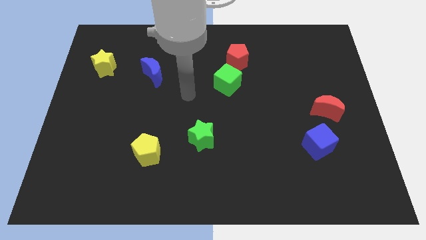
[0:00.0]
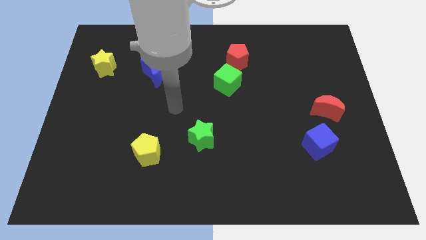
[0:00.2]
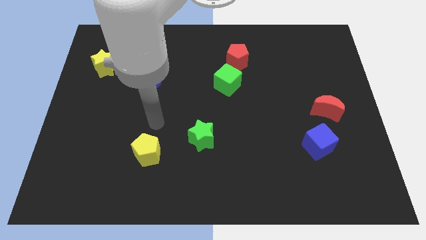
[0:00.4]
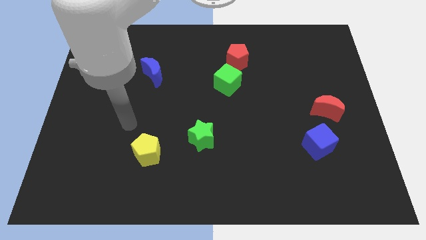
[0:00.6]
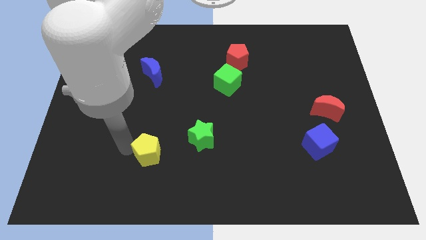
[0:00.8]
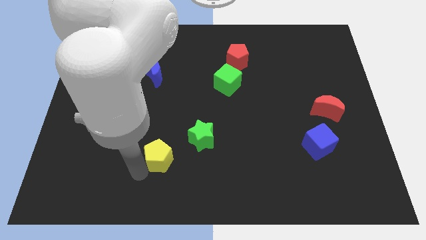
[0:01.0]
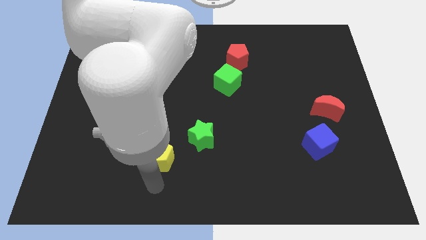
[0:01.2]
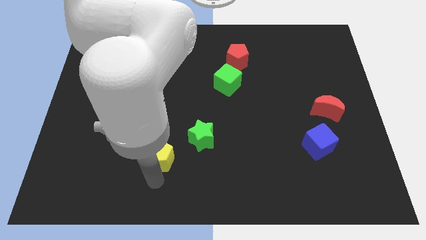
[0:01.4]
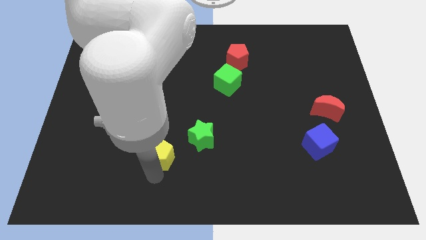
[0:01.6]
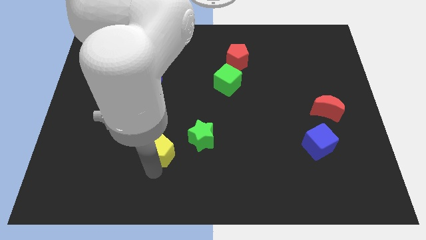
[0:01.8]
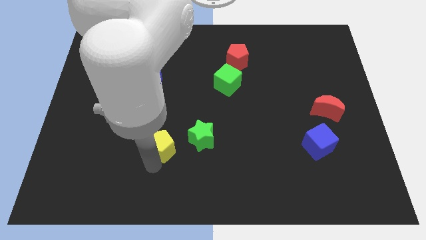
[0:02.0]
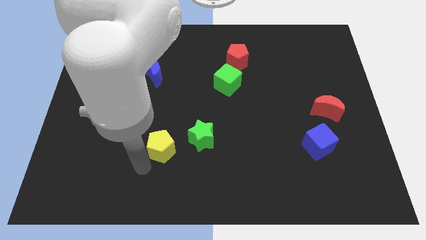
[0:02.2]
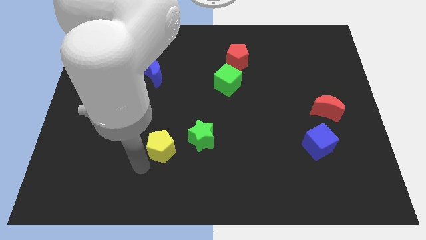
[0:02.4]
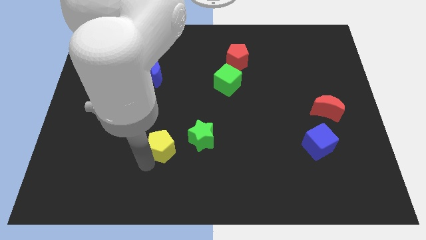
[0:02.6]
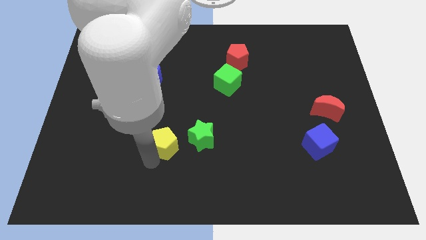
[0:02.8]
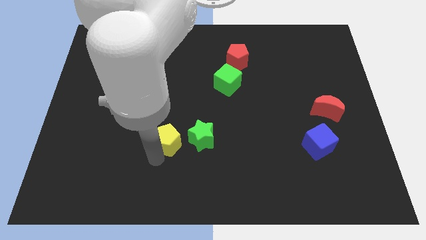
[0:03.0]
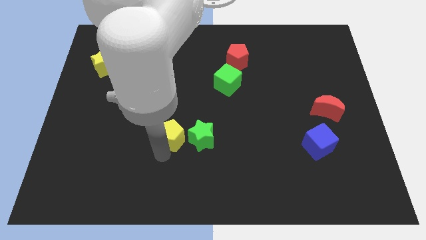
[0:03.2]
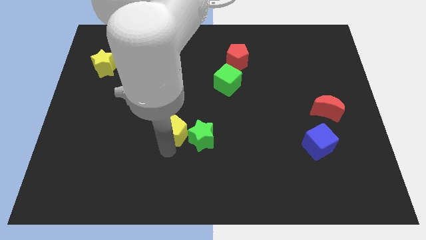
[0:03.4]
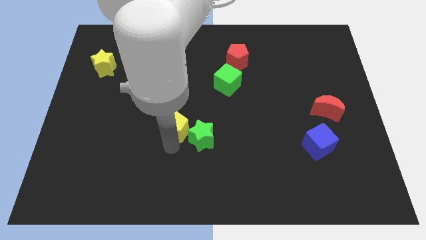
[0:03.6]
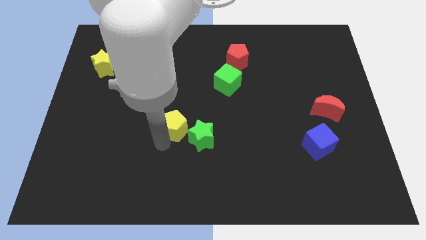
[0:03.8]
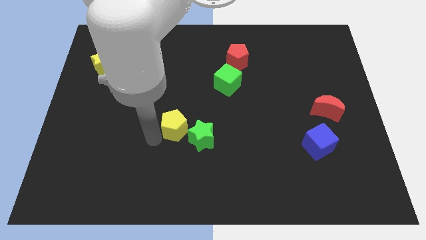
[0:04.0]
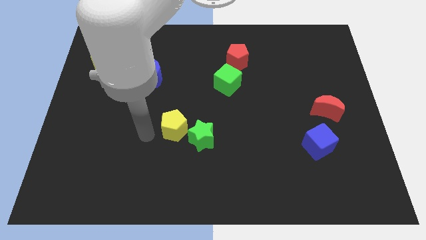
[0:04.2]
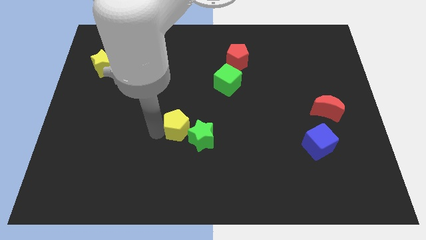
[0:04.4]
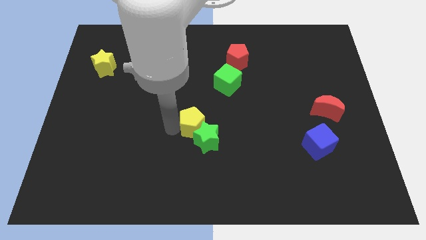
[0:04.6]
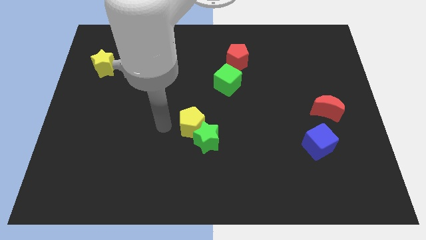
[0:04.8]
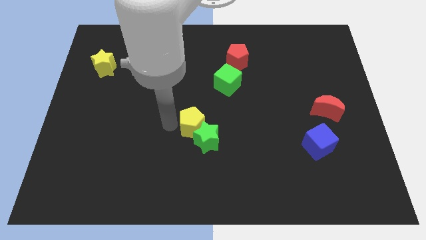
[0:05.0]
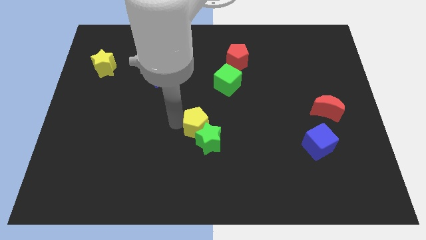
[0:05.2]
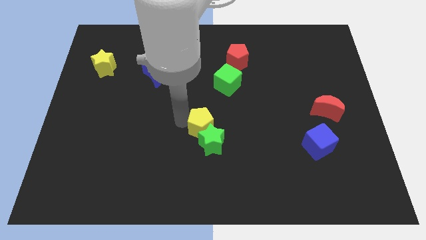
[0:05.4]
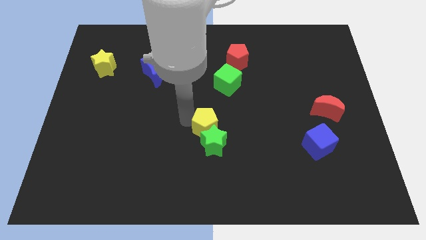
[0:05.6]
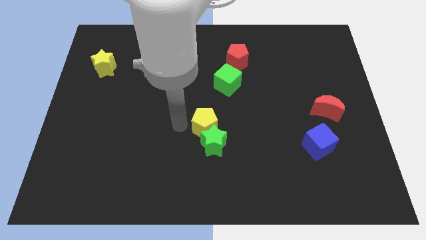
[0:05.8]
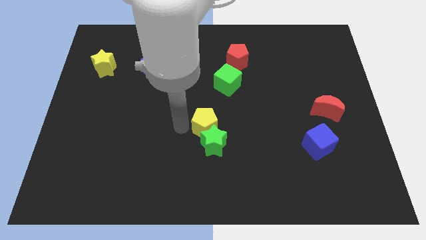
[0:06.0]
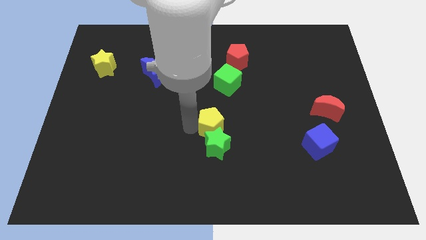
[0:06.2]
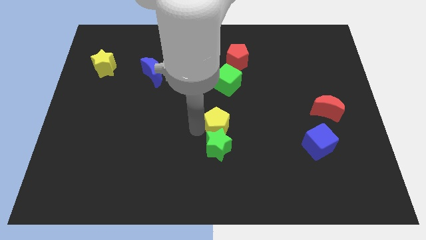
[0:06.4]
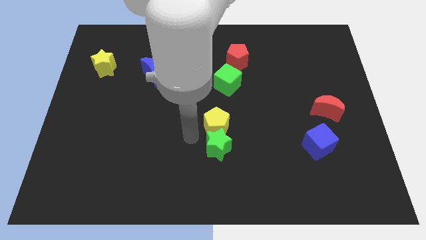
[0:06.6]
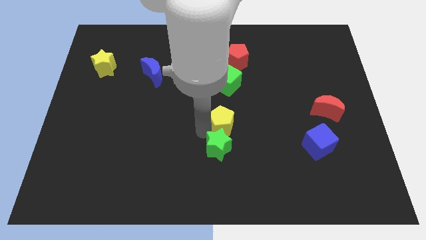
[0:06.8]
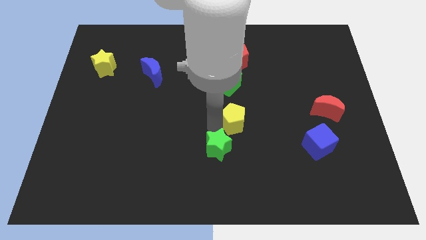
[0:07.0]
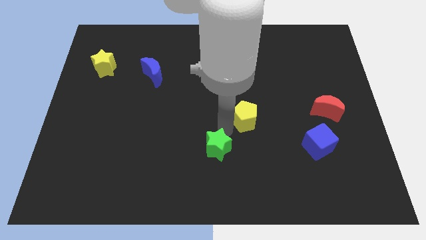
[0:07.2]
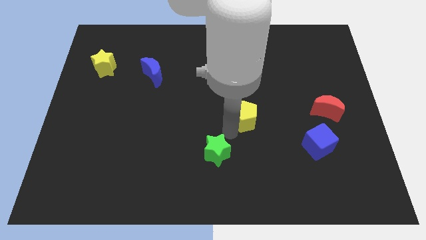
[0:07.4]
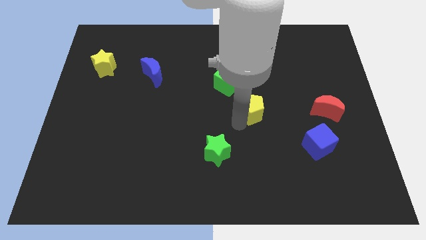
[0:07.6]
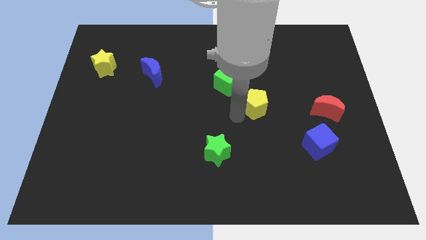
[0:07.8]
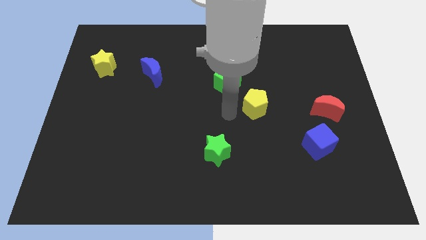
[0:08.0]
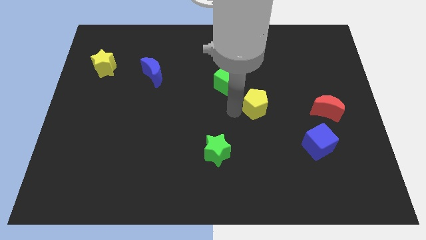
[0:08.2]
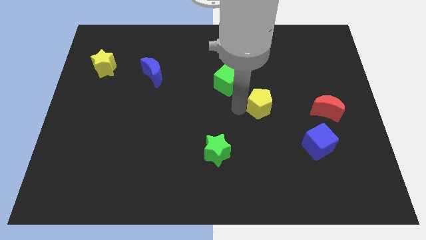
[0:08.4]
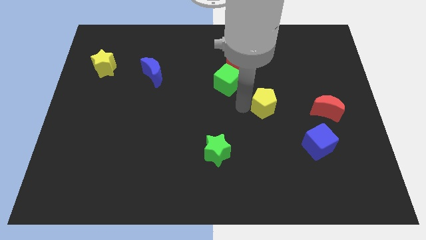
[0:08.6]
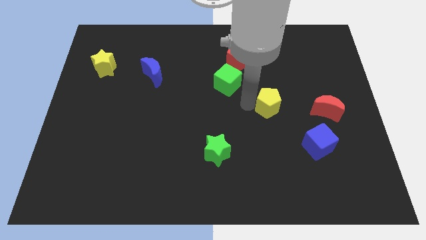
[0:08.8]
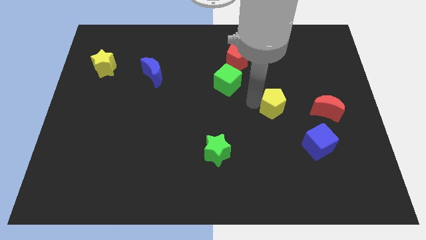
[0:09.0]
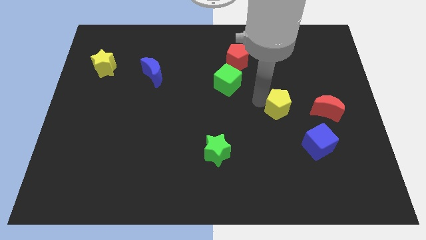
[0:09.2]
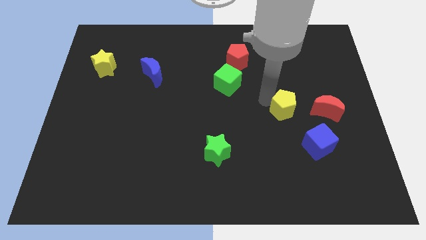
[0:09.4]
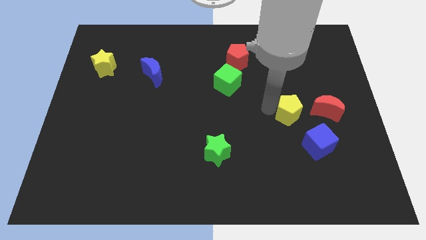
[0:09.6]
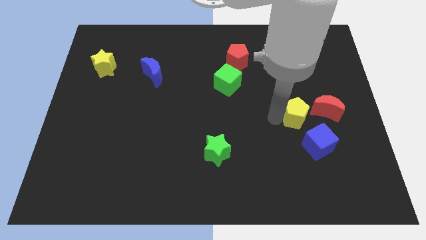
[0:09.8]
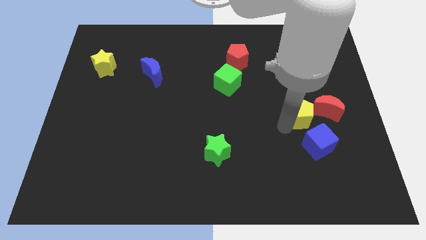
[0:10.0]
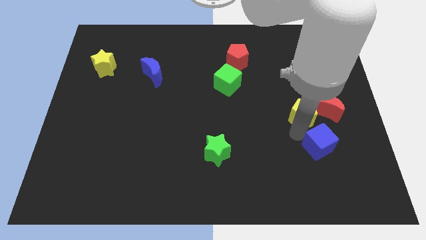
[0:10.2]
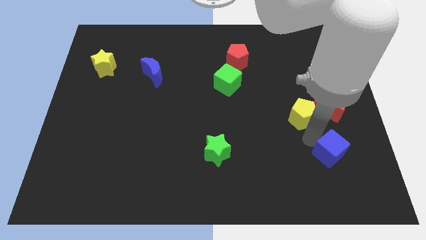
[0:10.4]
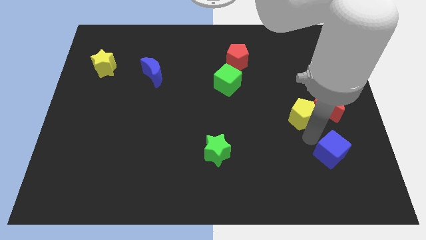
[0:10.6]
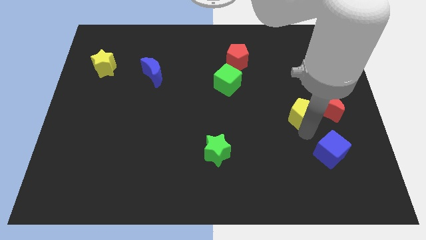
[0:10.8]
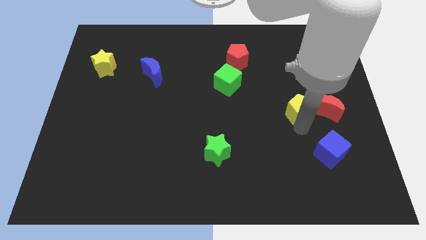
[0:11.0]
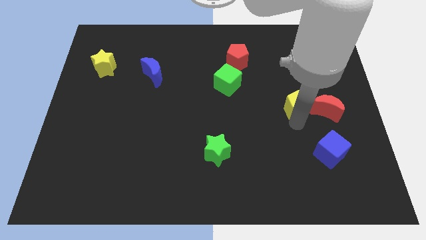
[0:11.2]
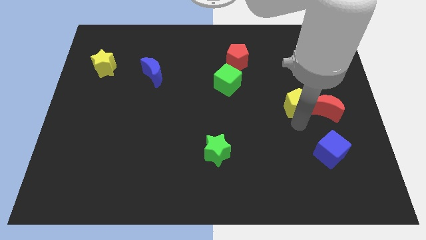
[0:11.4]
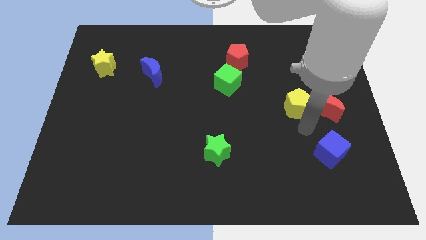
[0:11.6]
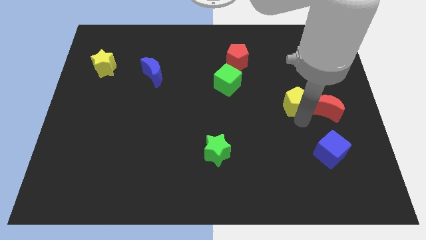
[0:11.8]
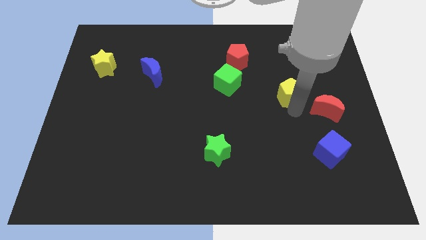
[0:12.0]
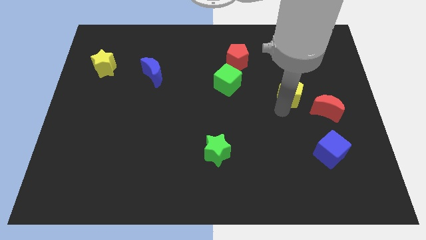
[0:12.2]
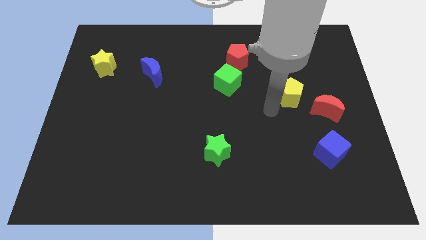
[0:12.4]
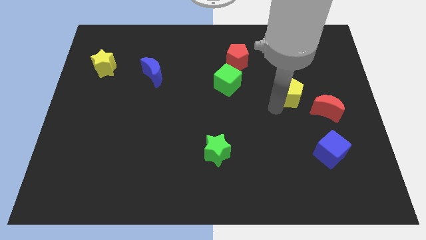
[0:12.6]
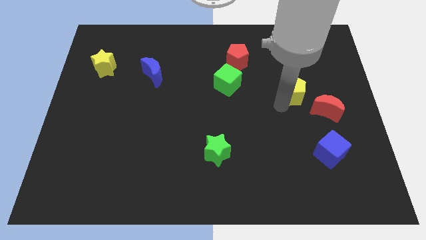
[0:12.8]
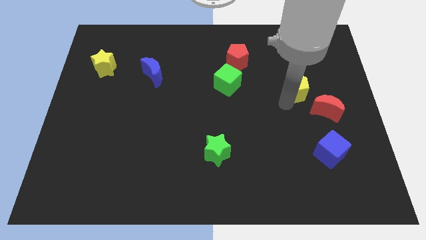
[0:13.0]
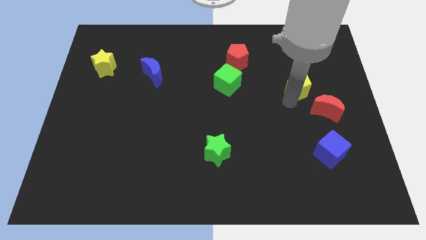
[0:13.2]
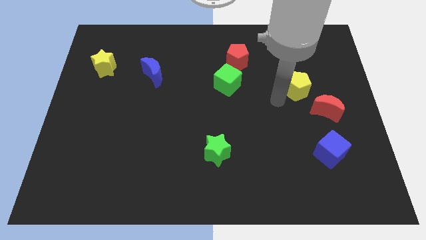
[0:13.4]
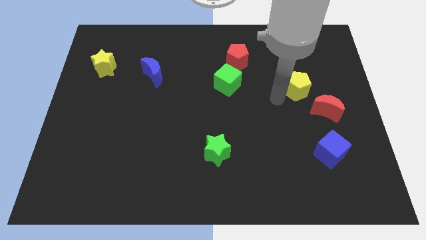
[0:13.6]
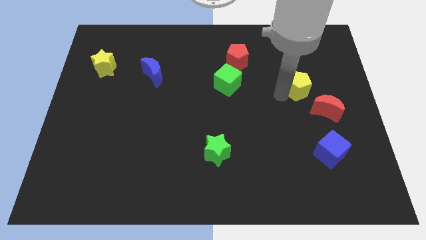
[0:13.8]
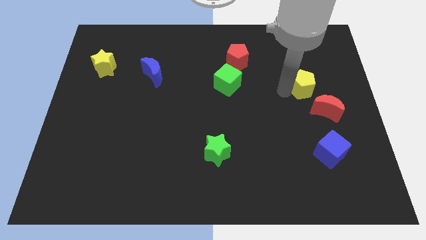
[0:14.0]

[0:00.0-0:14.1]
push the yellow pentagon above the red moon

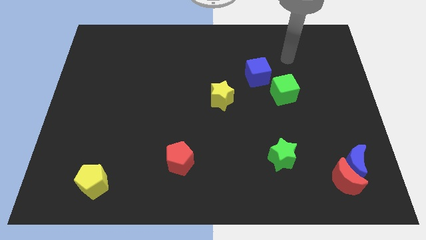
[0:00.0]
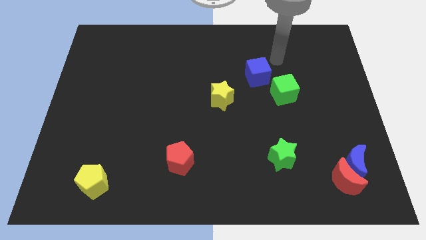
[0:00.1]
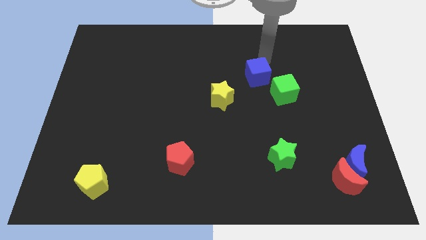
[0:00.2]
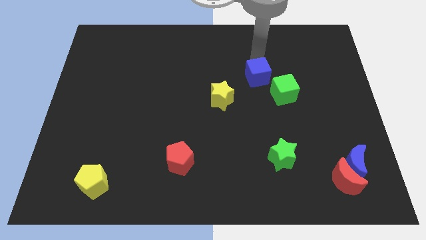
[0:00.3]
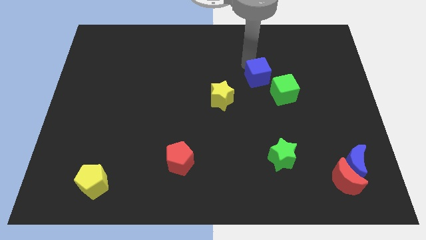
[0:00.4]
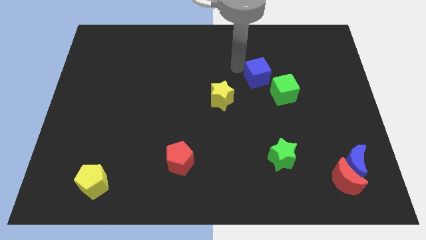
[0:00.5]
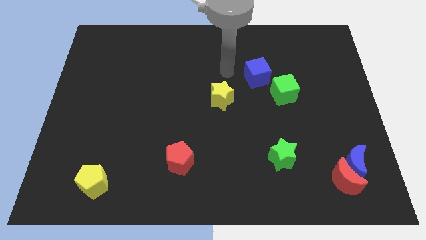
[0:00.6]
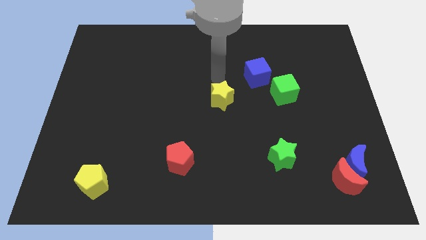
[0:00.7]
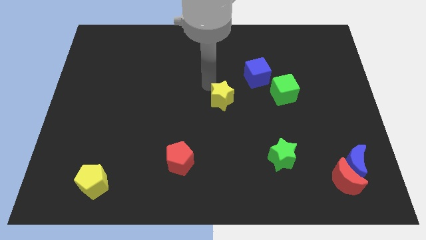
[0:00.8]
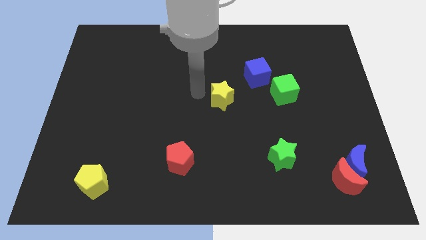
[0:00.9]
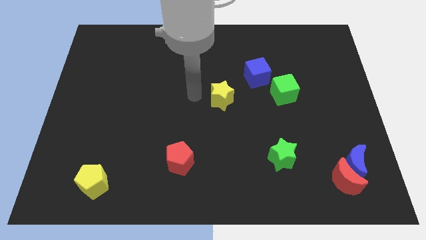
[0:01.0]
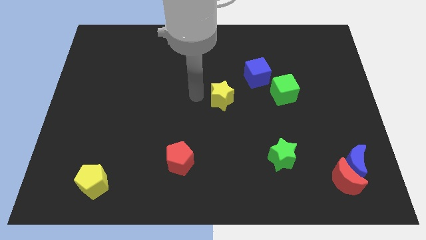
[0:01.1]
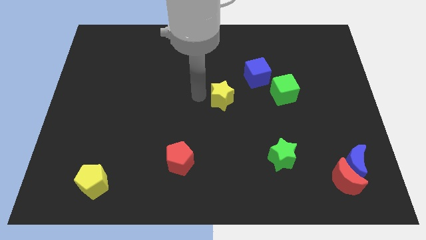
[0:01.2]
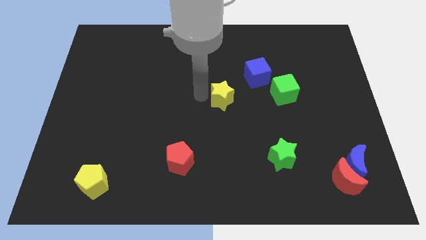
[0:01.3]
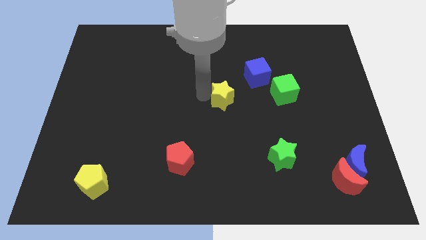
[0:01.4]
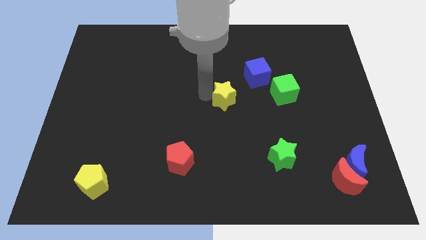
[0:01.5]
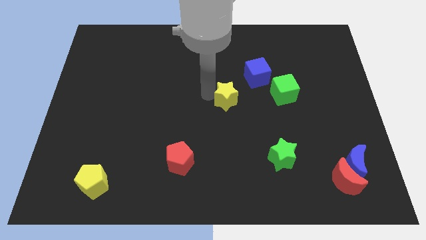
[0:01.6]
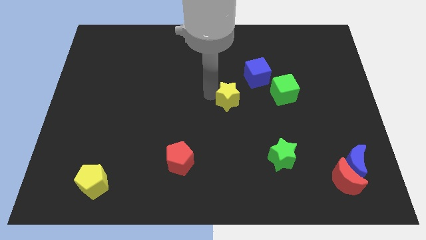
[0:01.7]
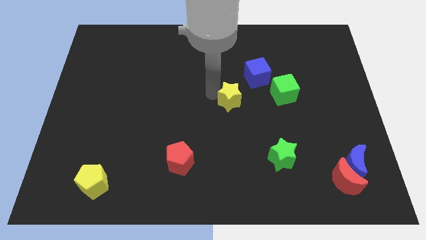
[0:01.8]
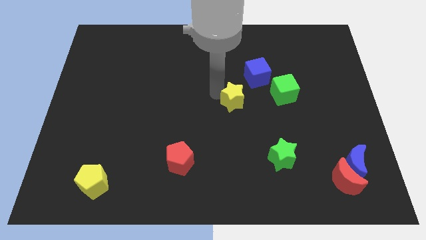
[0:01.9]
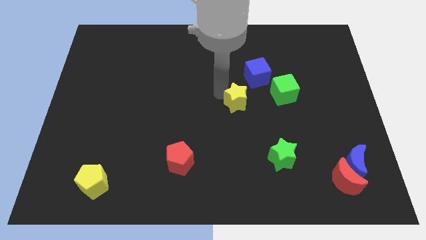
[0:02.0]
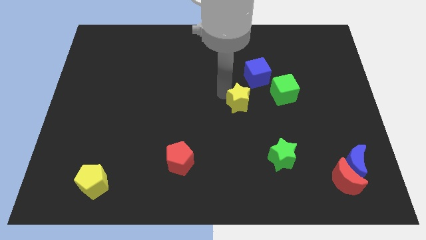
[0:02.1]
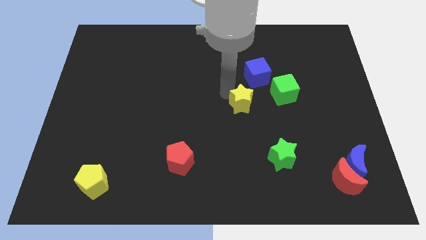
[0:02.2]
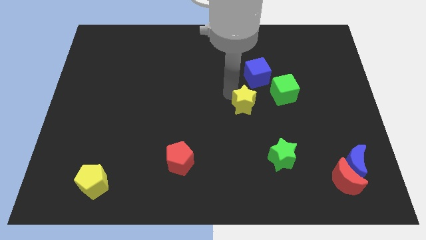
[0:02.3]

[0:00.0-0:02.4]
push the yellow star to the bottom left of the green cube
